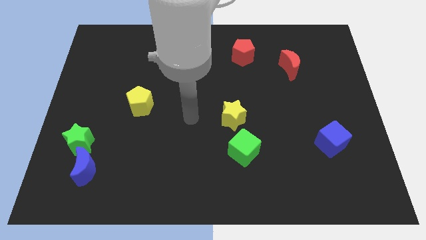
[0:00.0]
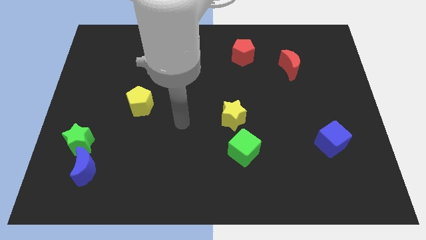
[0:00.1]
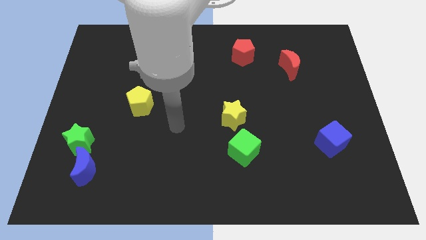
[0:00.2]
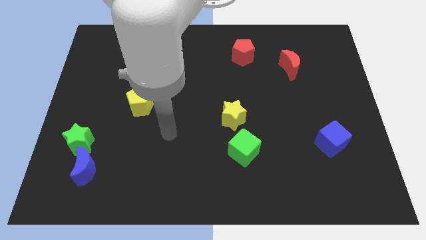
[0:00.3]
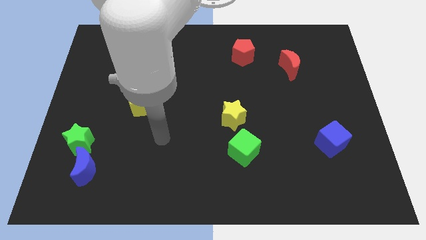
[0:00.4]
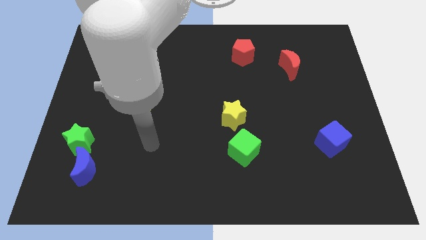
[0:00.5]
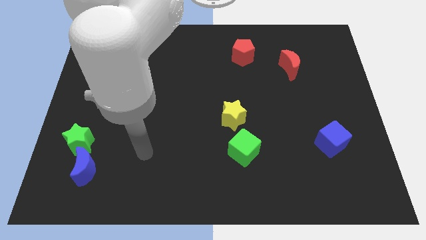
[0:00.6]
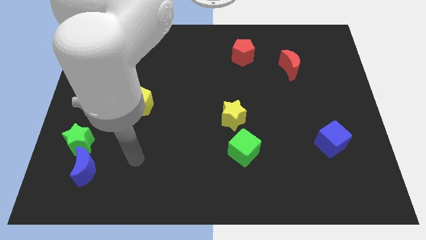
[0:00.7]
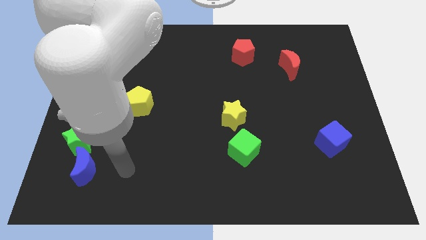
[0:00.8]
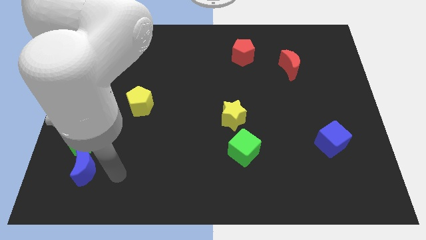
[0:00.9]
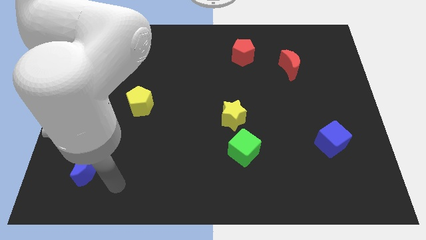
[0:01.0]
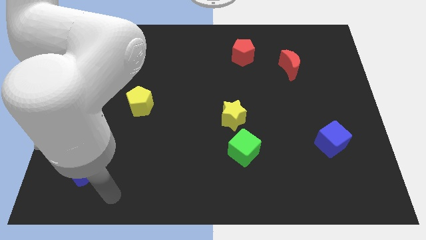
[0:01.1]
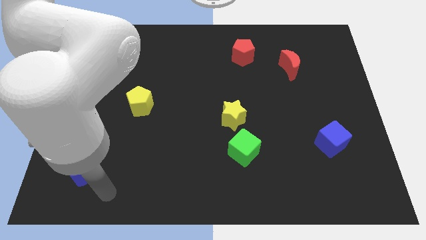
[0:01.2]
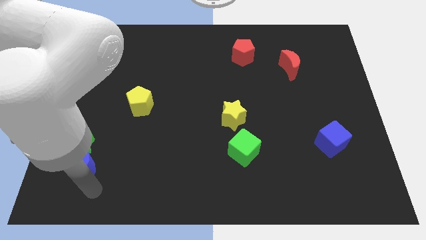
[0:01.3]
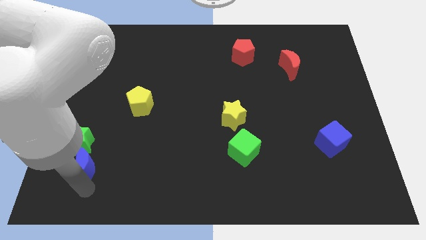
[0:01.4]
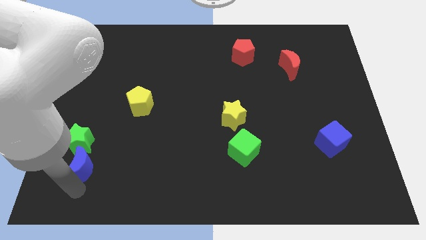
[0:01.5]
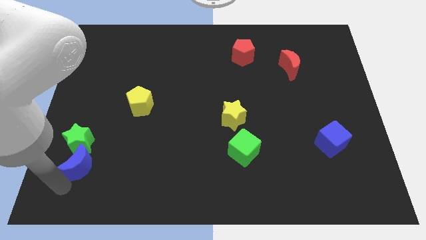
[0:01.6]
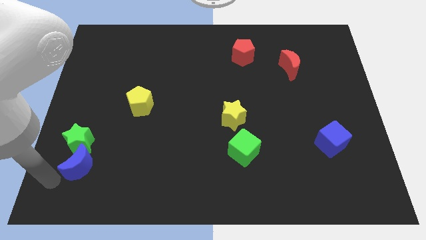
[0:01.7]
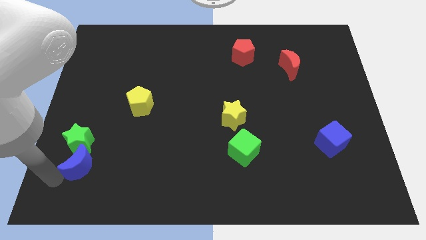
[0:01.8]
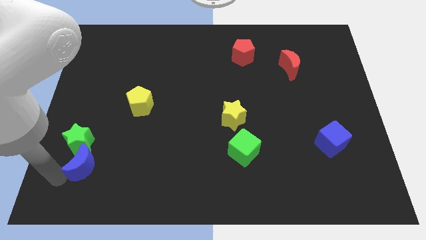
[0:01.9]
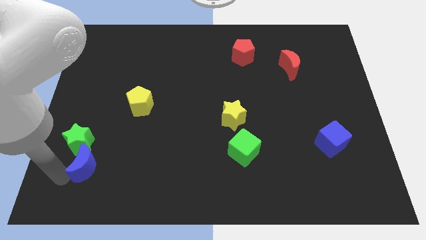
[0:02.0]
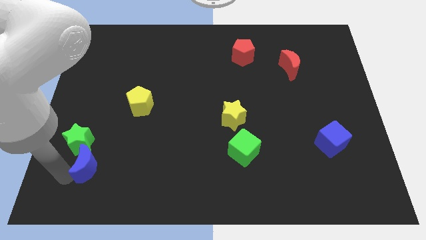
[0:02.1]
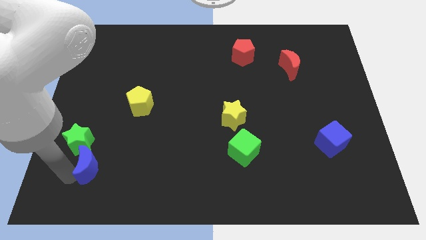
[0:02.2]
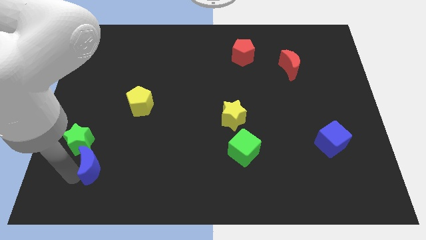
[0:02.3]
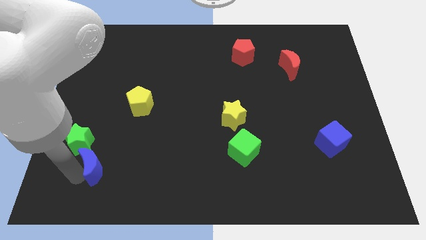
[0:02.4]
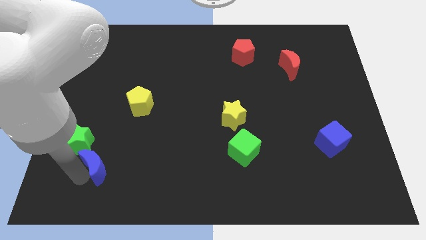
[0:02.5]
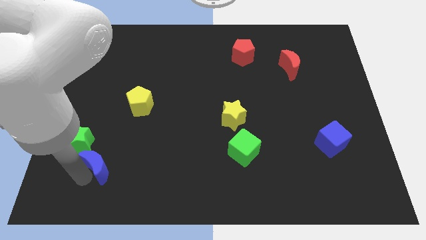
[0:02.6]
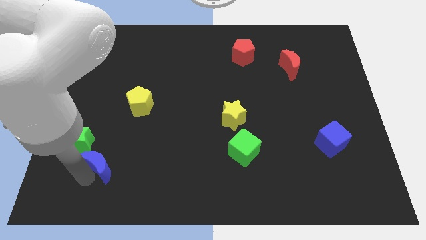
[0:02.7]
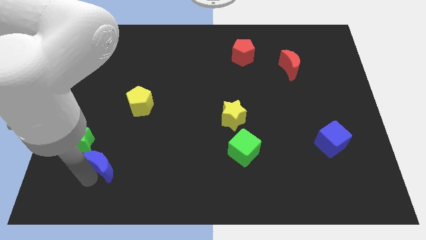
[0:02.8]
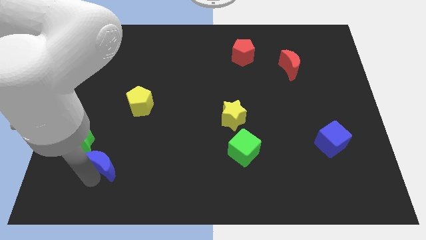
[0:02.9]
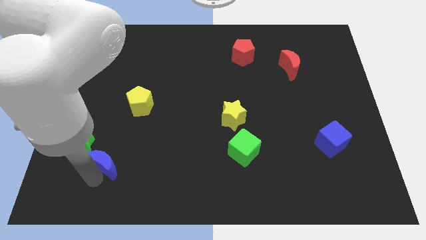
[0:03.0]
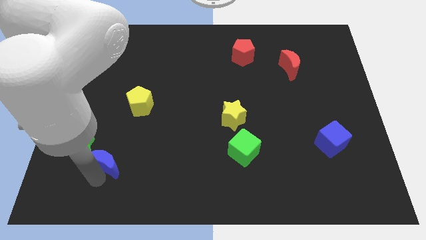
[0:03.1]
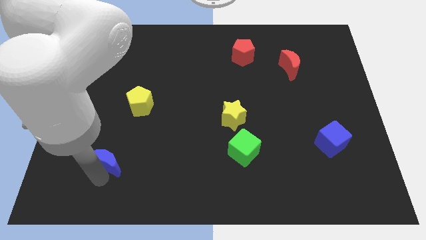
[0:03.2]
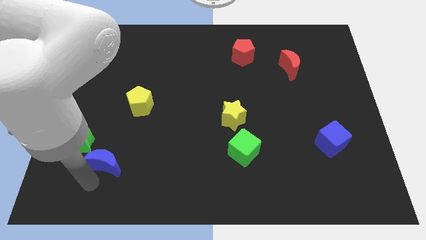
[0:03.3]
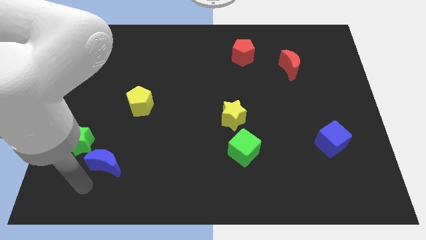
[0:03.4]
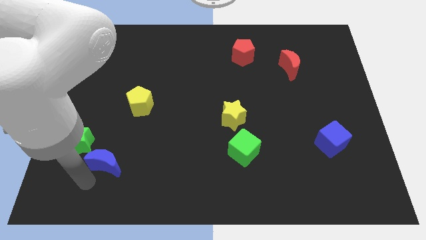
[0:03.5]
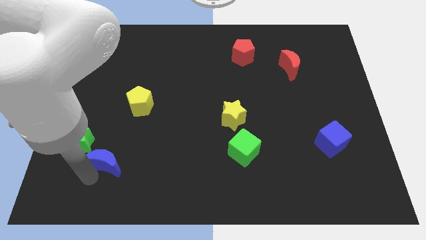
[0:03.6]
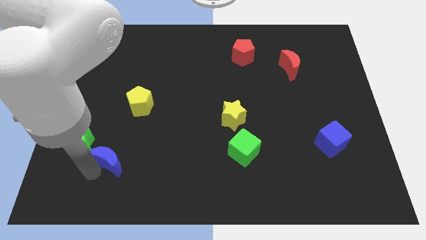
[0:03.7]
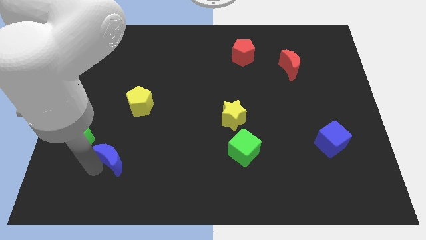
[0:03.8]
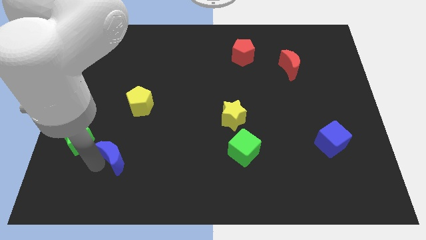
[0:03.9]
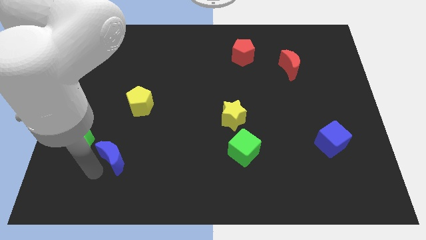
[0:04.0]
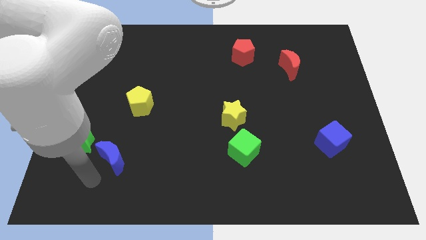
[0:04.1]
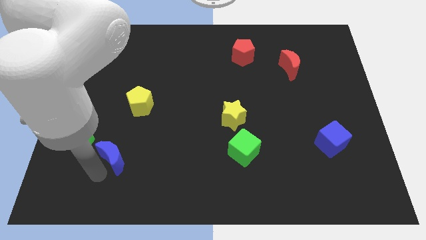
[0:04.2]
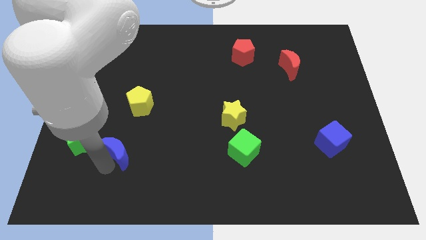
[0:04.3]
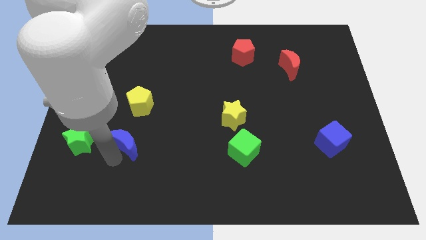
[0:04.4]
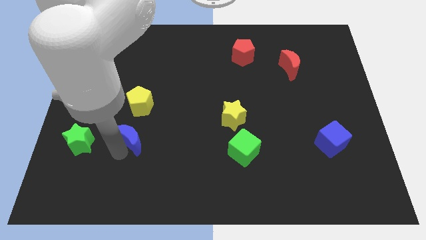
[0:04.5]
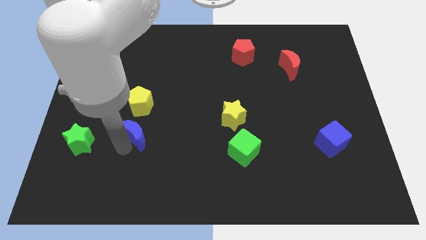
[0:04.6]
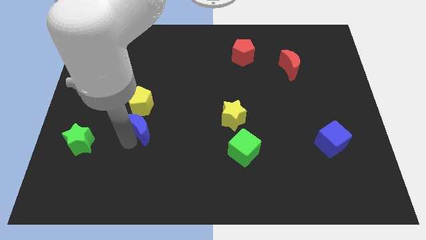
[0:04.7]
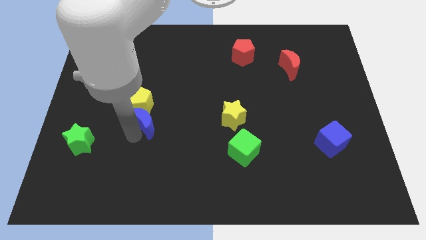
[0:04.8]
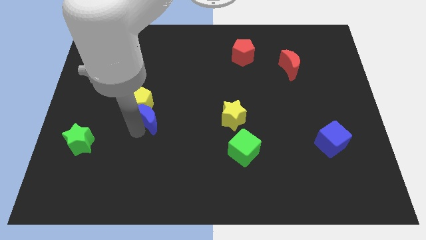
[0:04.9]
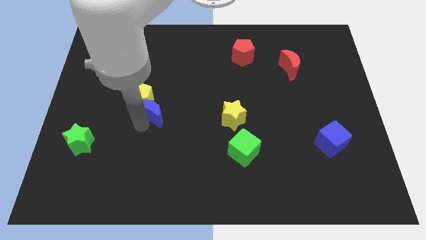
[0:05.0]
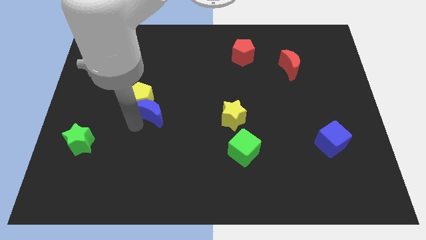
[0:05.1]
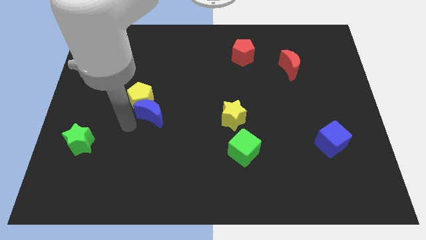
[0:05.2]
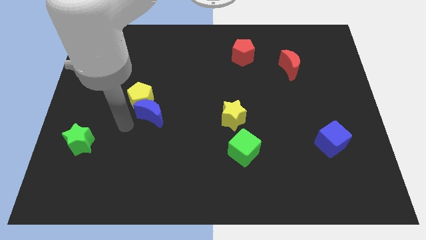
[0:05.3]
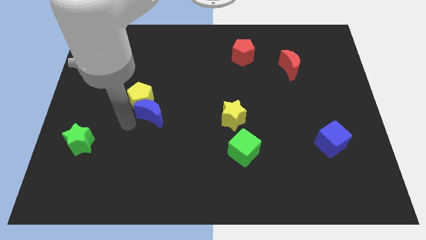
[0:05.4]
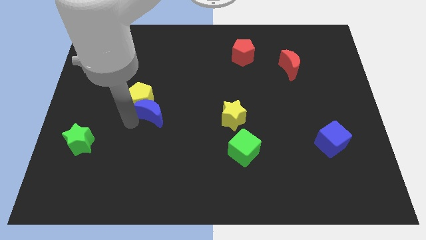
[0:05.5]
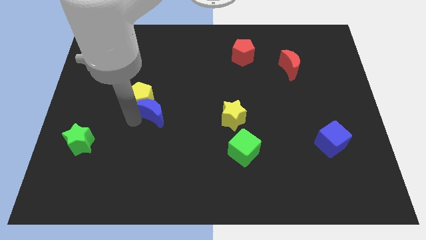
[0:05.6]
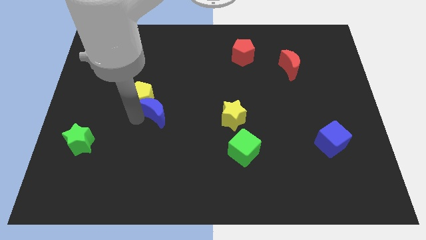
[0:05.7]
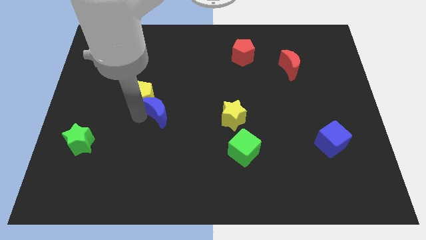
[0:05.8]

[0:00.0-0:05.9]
slide the blue moon up and then right

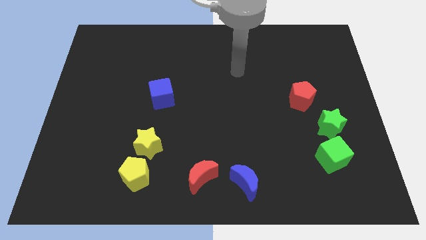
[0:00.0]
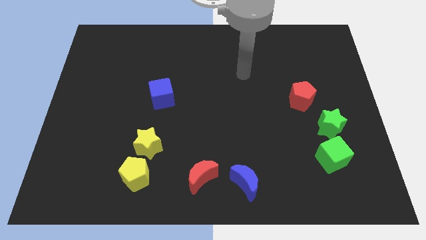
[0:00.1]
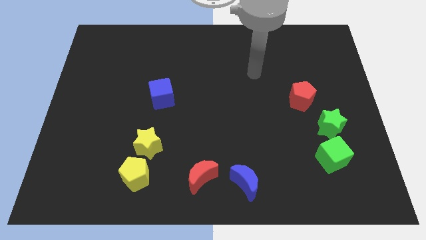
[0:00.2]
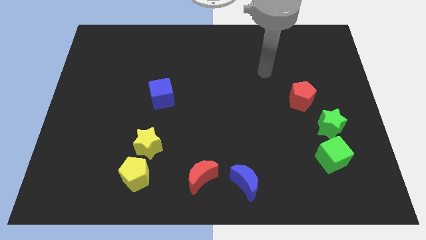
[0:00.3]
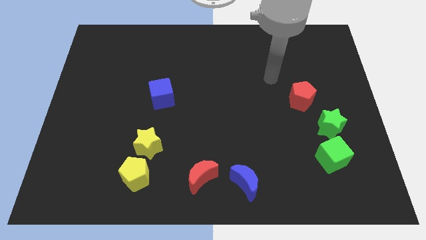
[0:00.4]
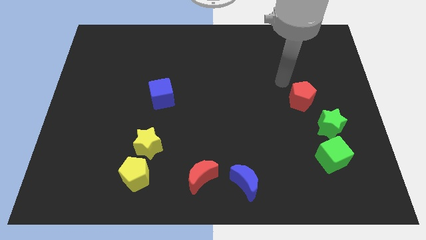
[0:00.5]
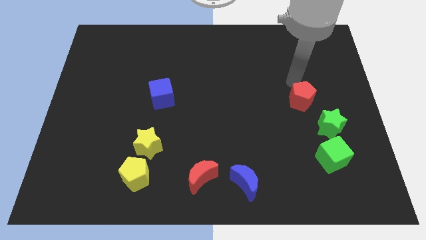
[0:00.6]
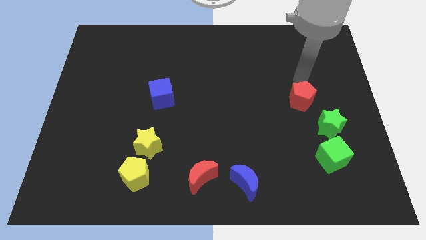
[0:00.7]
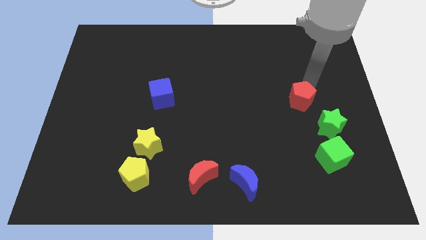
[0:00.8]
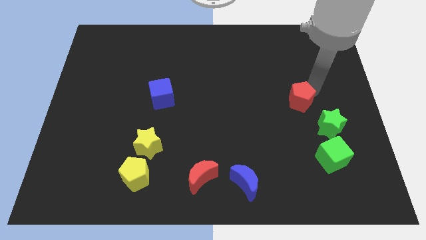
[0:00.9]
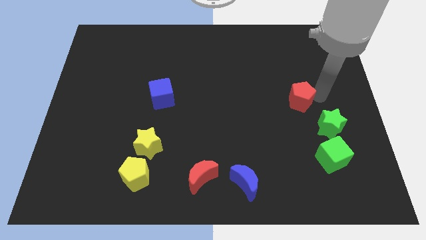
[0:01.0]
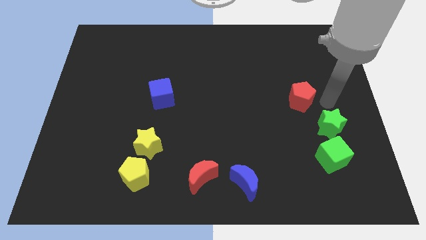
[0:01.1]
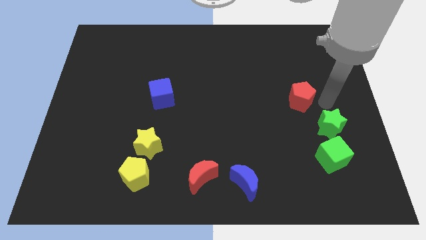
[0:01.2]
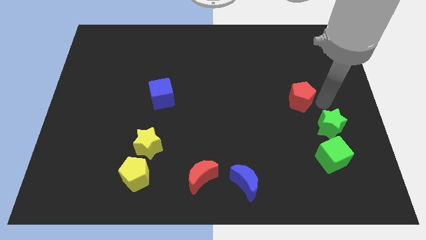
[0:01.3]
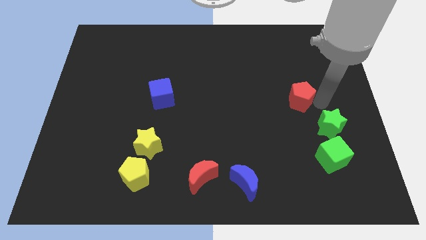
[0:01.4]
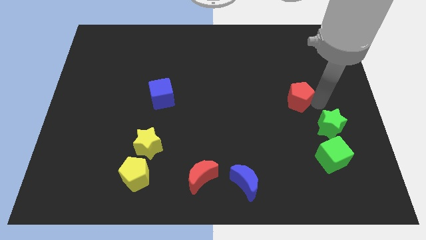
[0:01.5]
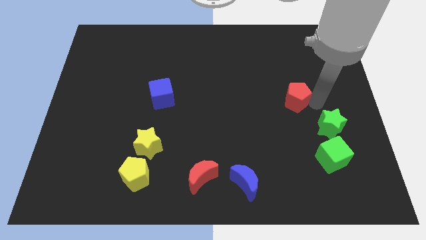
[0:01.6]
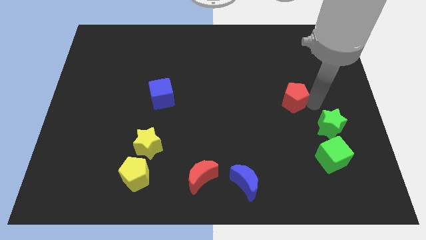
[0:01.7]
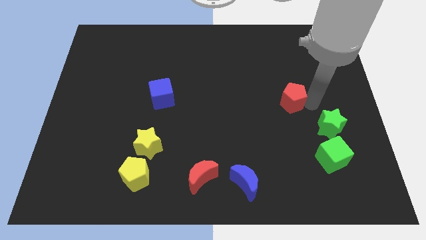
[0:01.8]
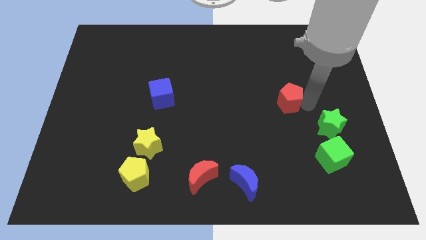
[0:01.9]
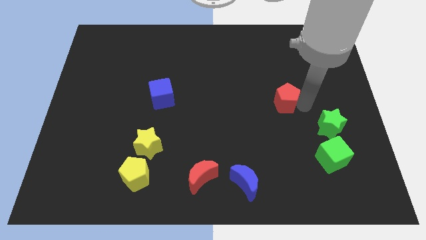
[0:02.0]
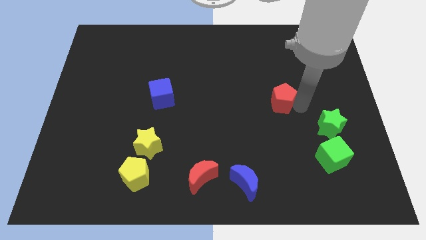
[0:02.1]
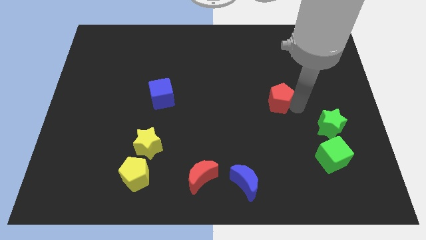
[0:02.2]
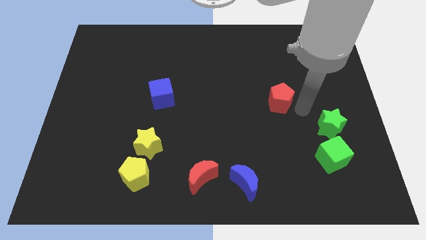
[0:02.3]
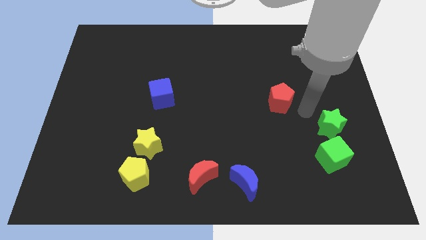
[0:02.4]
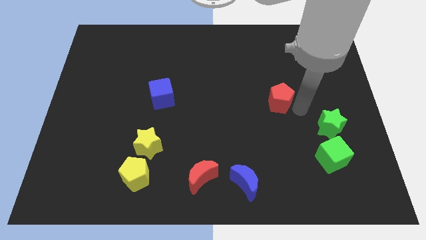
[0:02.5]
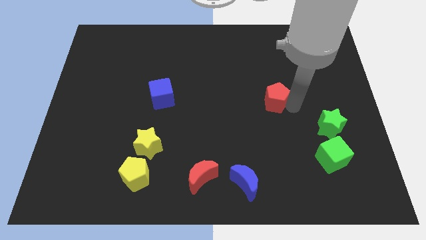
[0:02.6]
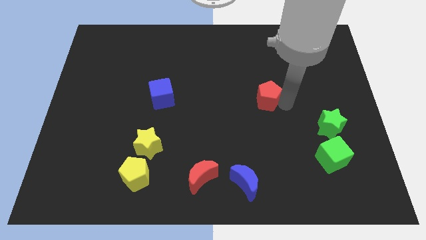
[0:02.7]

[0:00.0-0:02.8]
push the red pentagon left a little
